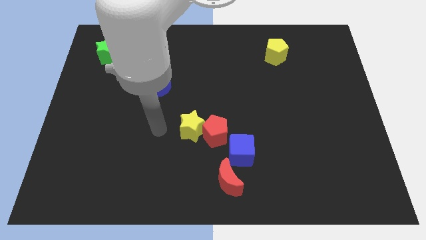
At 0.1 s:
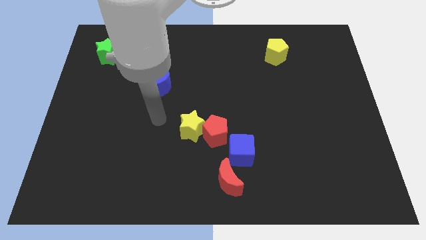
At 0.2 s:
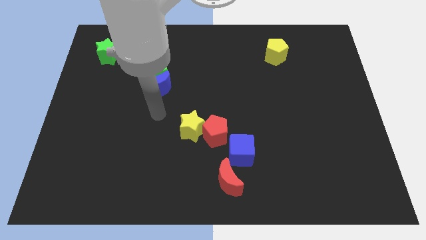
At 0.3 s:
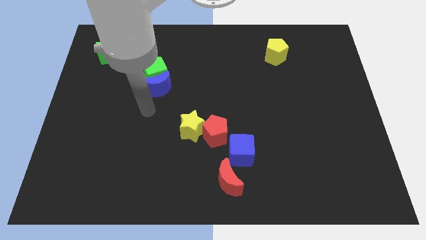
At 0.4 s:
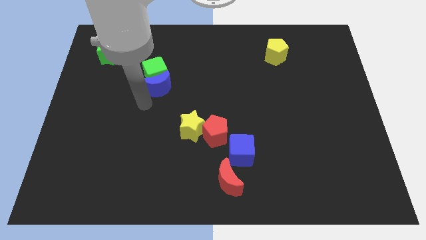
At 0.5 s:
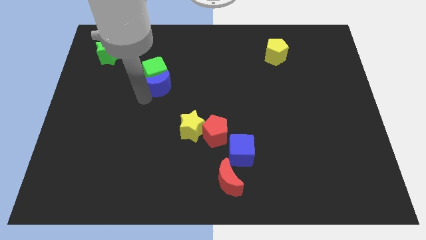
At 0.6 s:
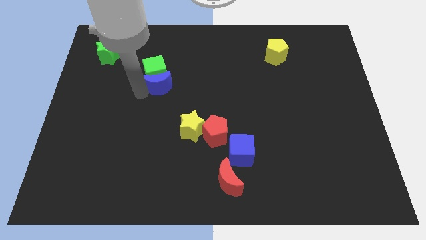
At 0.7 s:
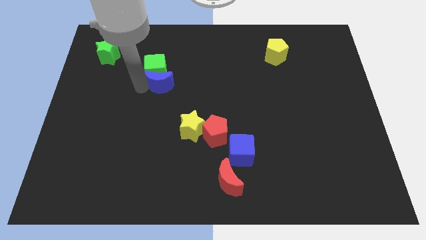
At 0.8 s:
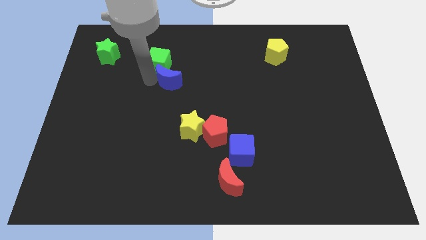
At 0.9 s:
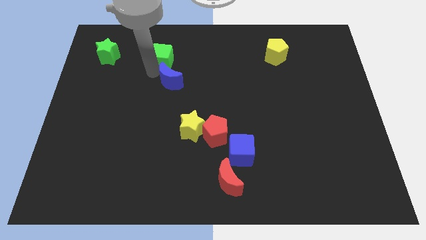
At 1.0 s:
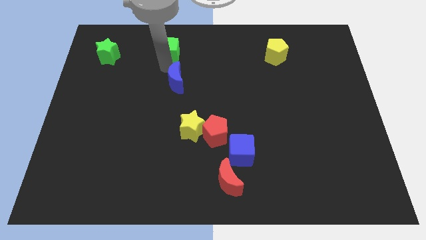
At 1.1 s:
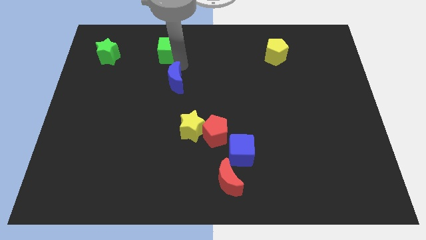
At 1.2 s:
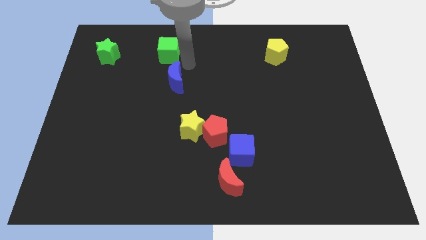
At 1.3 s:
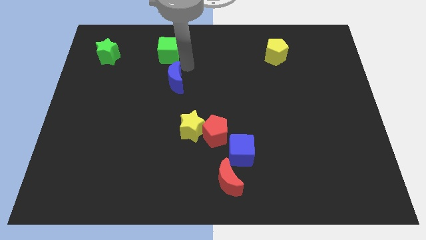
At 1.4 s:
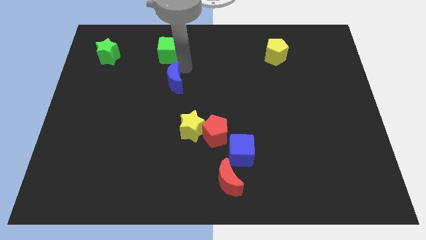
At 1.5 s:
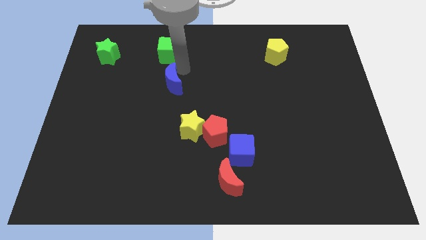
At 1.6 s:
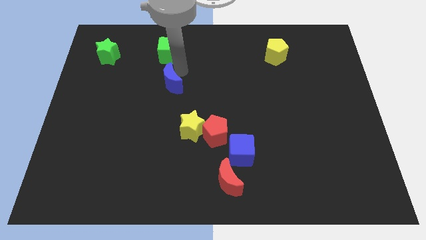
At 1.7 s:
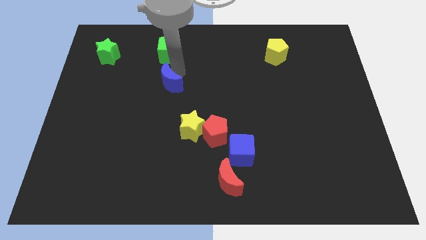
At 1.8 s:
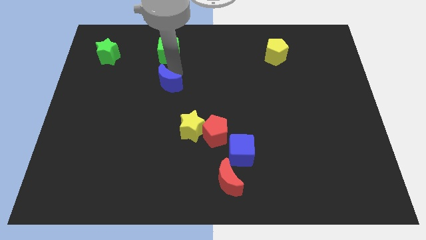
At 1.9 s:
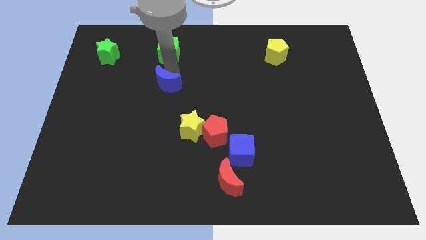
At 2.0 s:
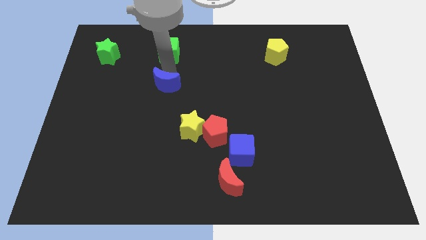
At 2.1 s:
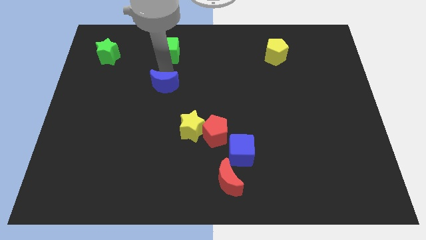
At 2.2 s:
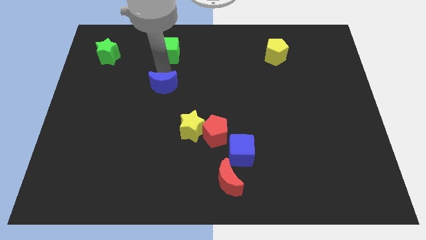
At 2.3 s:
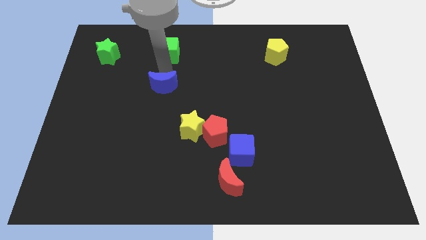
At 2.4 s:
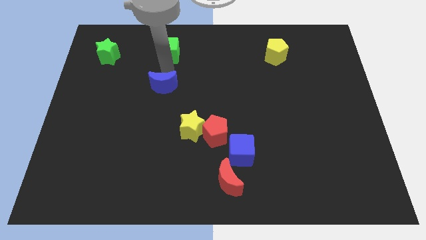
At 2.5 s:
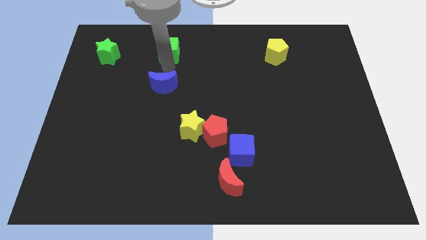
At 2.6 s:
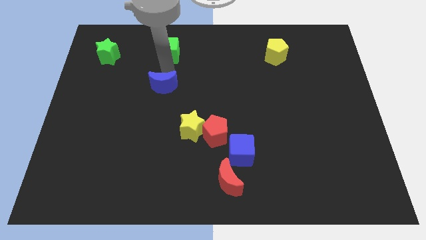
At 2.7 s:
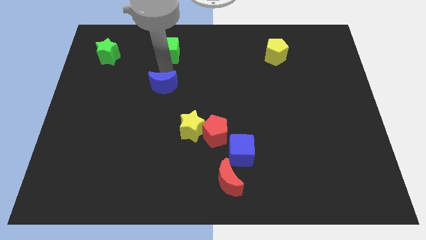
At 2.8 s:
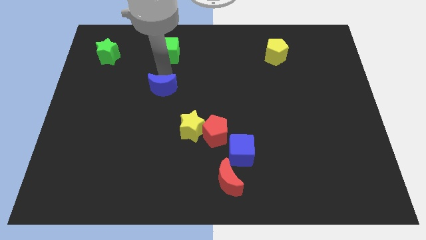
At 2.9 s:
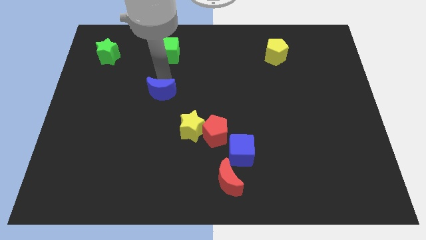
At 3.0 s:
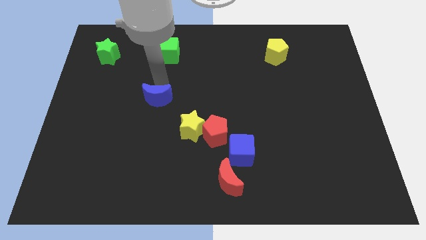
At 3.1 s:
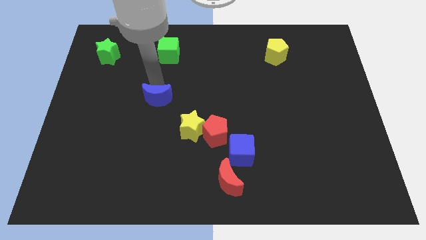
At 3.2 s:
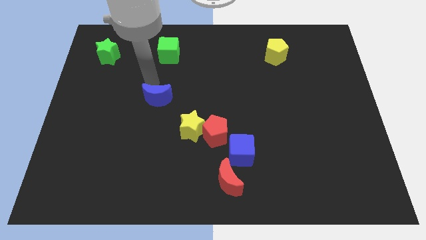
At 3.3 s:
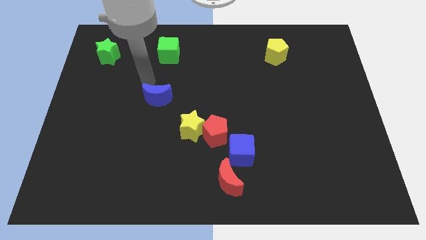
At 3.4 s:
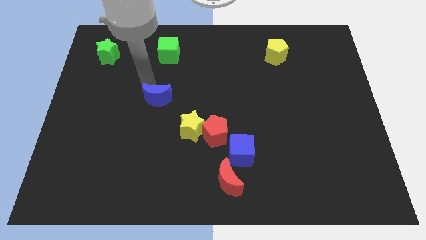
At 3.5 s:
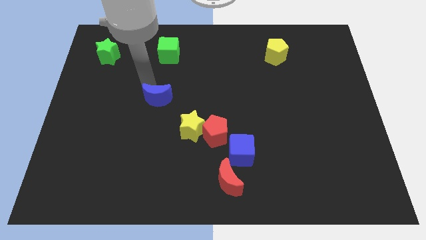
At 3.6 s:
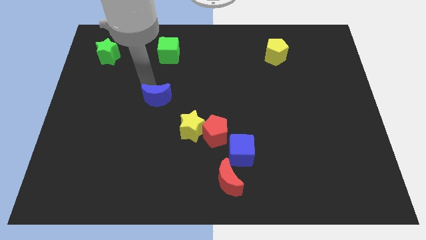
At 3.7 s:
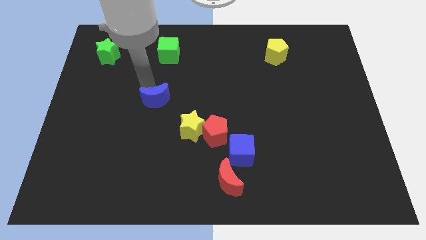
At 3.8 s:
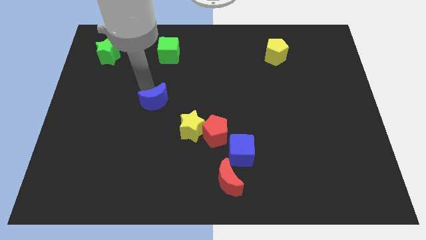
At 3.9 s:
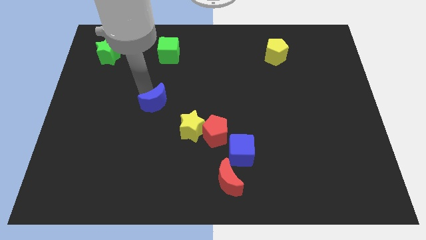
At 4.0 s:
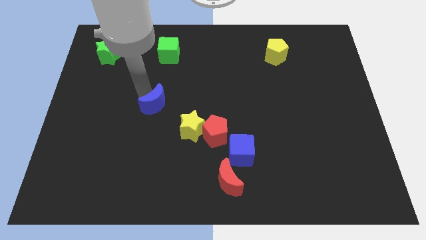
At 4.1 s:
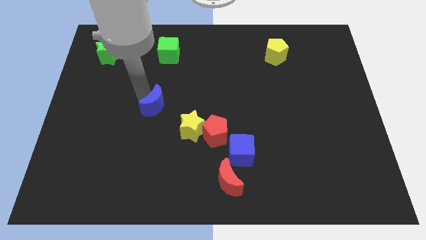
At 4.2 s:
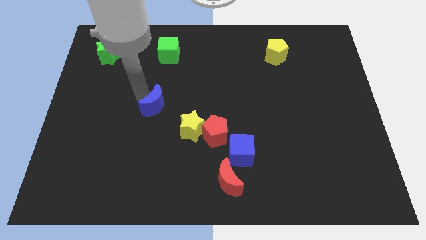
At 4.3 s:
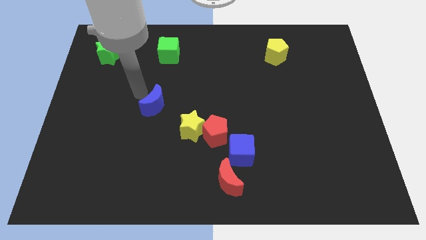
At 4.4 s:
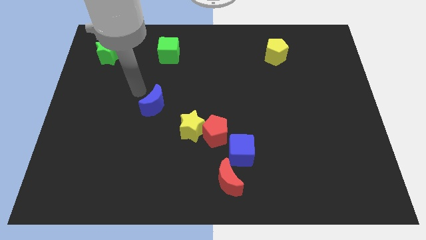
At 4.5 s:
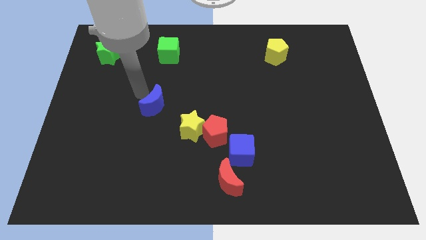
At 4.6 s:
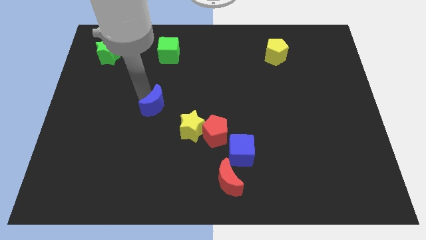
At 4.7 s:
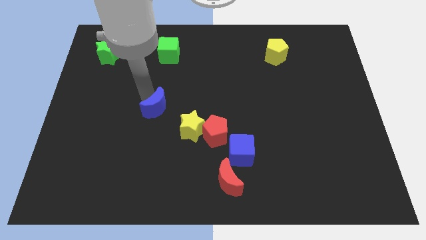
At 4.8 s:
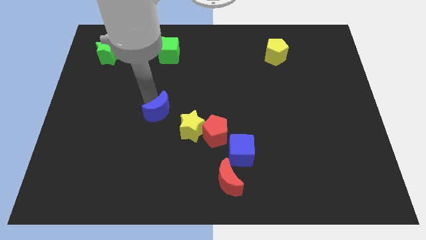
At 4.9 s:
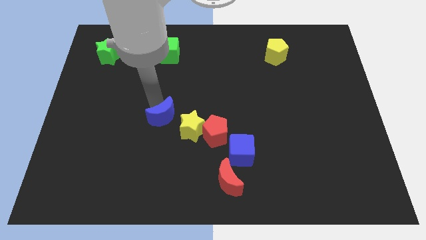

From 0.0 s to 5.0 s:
put the blue moon just left of the red pentagon

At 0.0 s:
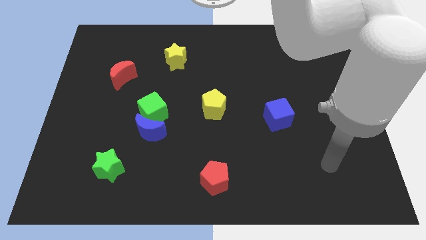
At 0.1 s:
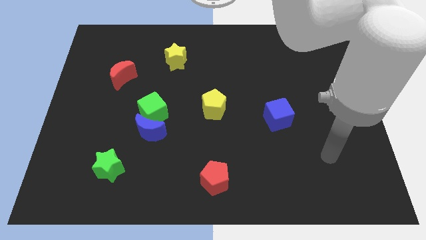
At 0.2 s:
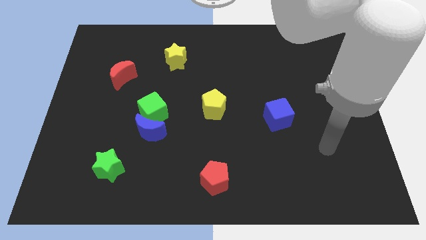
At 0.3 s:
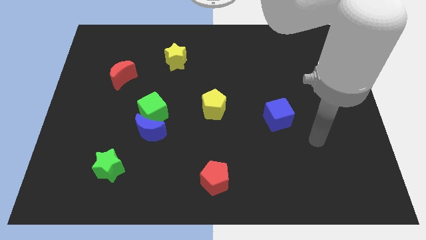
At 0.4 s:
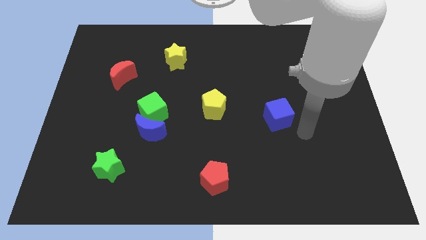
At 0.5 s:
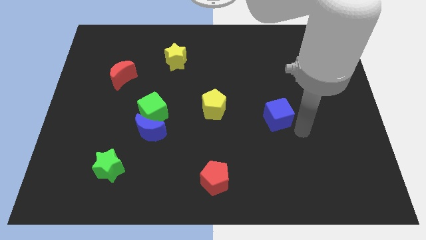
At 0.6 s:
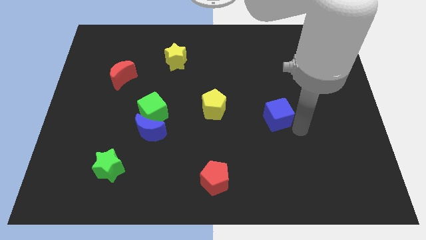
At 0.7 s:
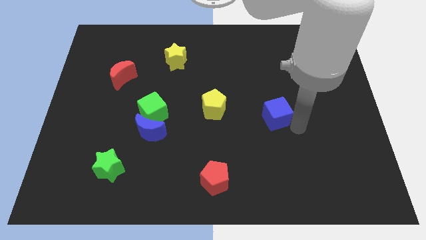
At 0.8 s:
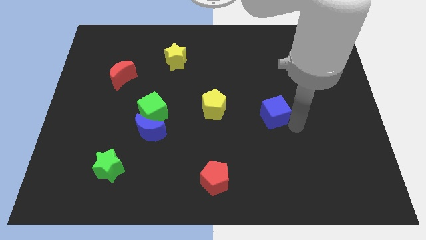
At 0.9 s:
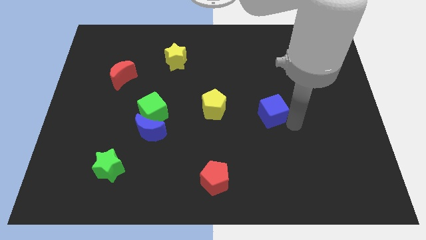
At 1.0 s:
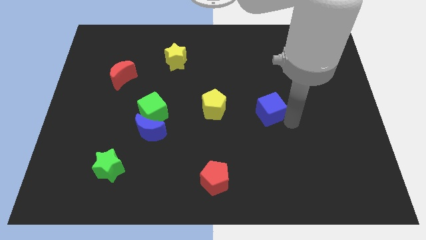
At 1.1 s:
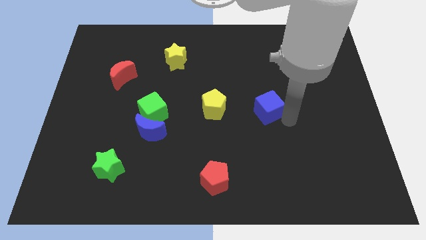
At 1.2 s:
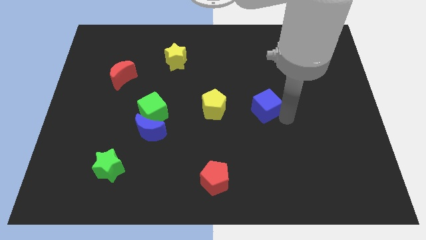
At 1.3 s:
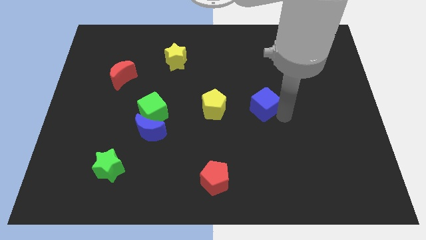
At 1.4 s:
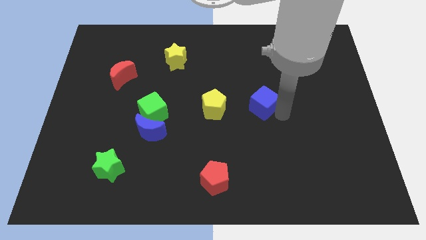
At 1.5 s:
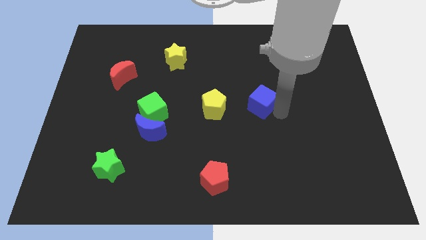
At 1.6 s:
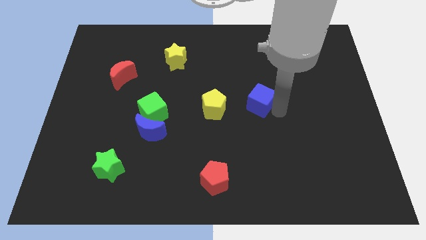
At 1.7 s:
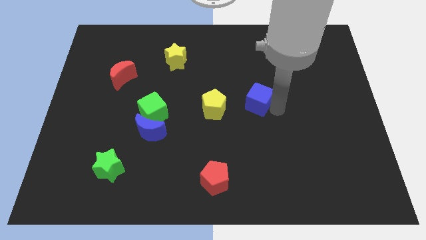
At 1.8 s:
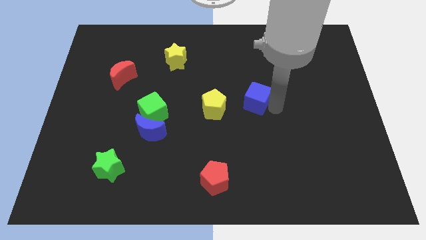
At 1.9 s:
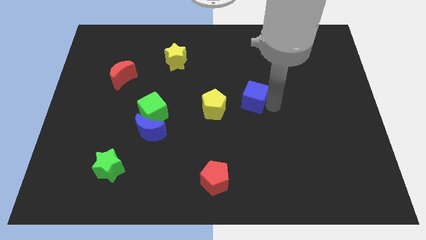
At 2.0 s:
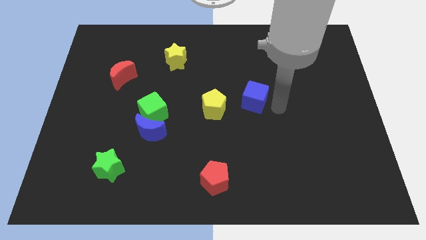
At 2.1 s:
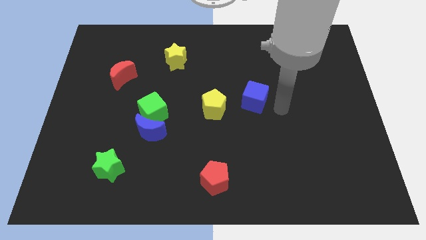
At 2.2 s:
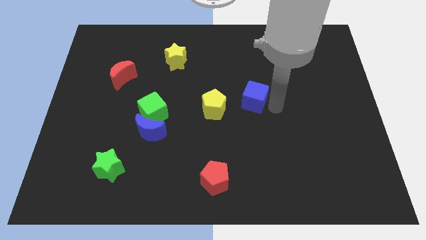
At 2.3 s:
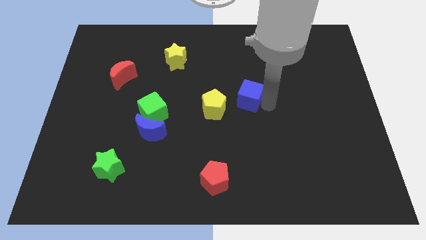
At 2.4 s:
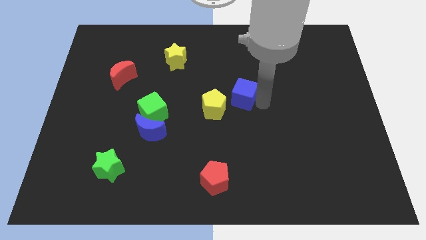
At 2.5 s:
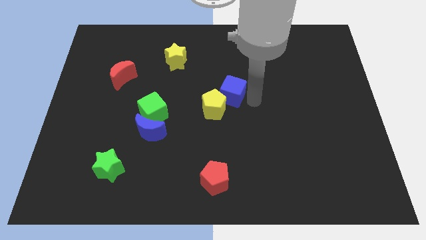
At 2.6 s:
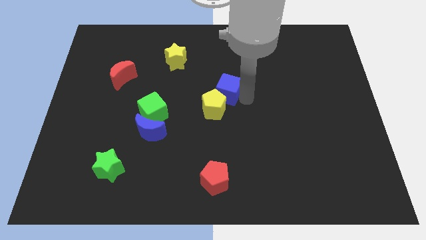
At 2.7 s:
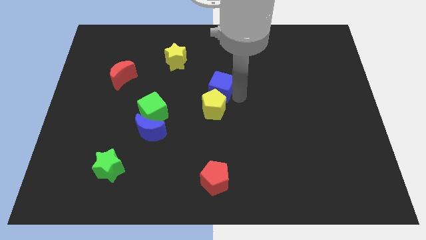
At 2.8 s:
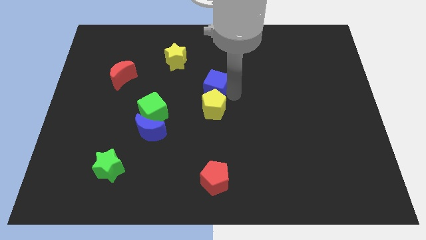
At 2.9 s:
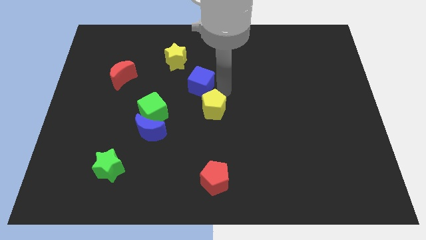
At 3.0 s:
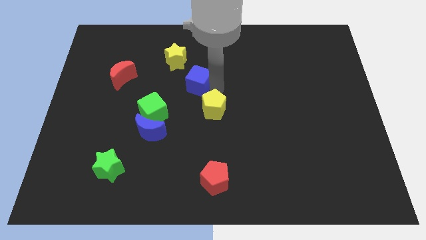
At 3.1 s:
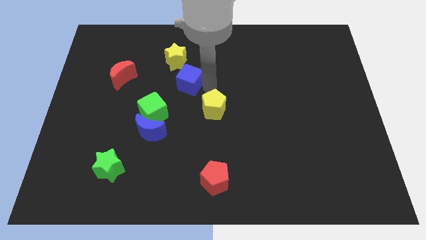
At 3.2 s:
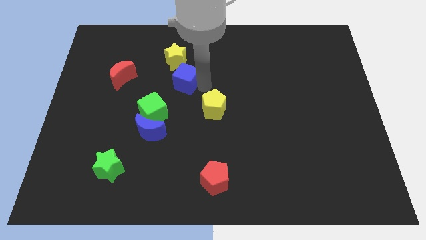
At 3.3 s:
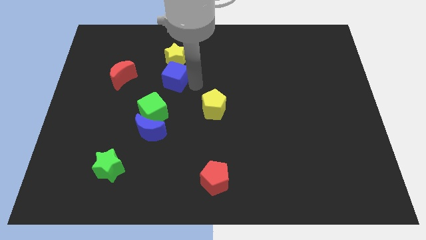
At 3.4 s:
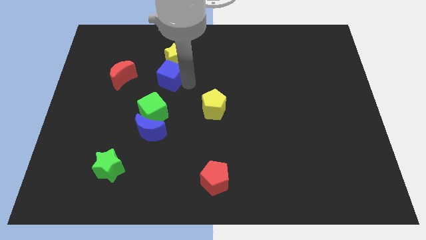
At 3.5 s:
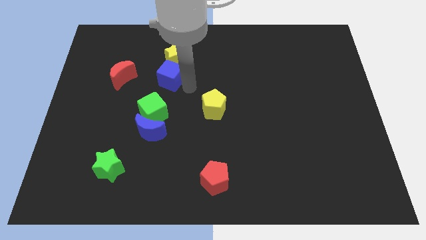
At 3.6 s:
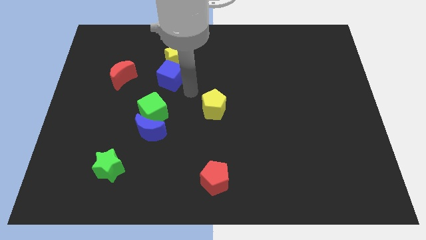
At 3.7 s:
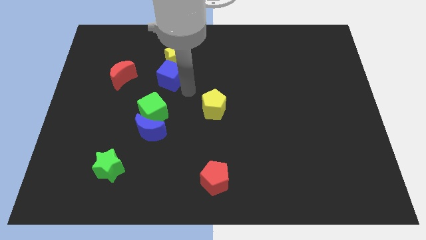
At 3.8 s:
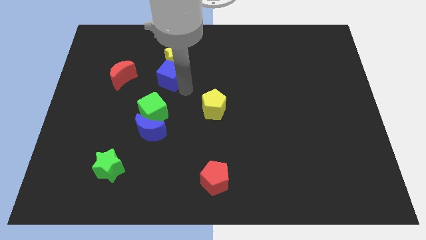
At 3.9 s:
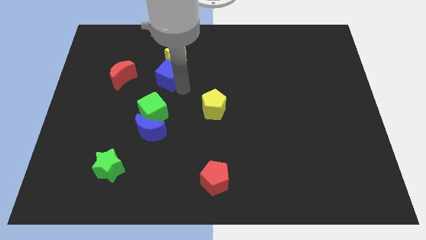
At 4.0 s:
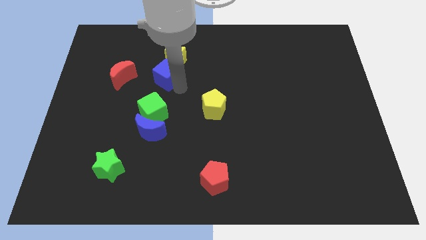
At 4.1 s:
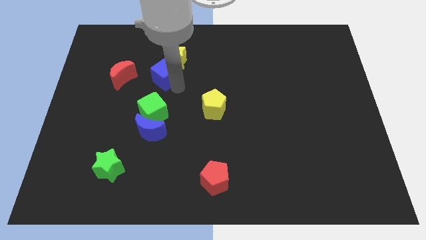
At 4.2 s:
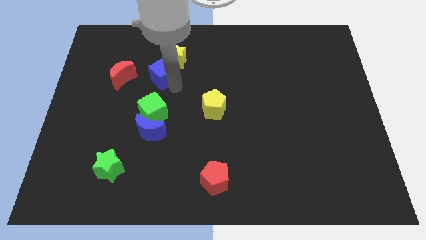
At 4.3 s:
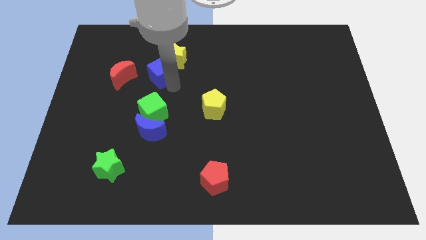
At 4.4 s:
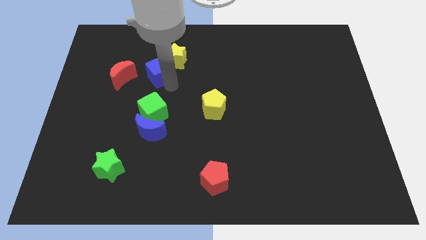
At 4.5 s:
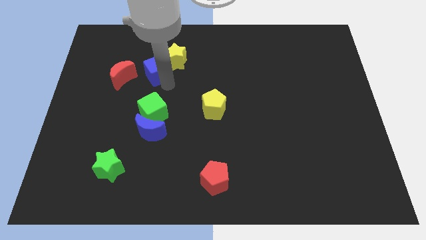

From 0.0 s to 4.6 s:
move the blue cube just left of the yellow star
